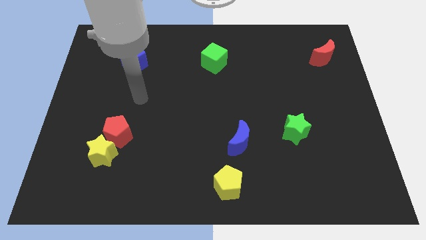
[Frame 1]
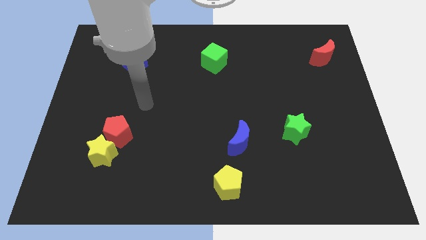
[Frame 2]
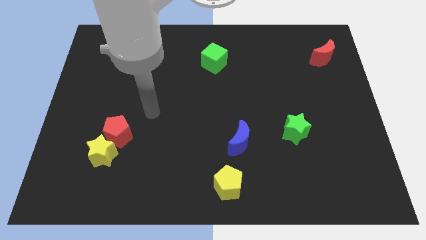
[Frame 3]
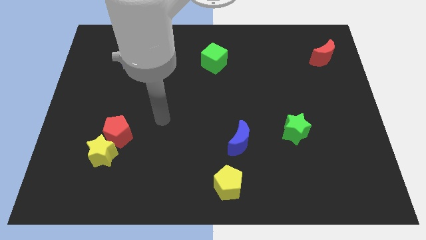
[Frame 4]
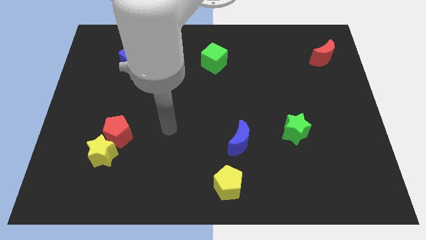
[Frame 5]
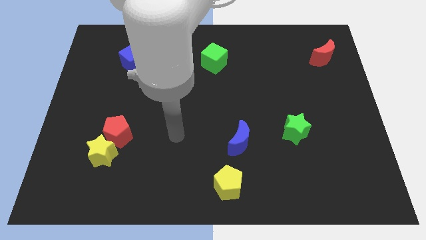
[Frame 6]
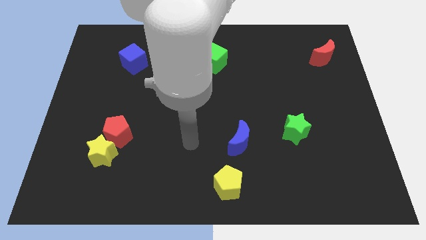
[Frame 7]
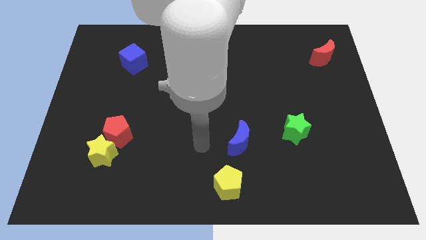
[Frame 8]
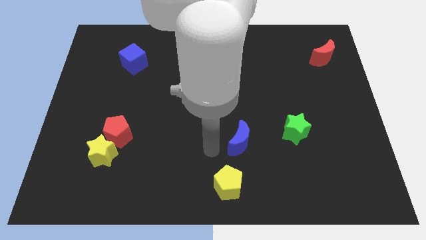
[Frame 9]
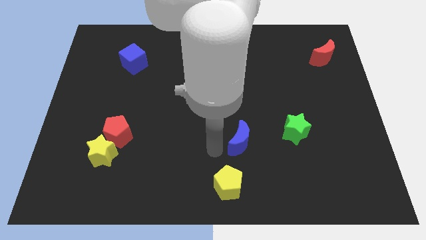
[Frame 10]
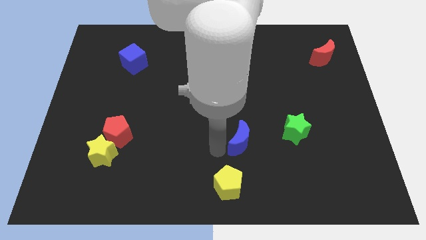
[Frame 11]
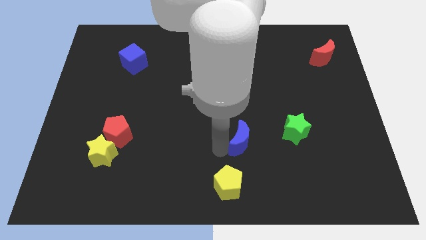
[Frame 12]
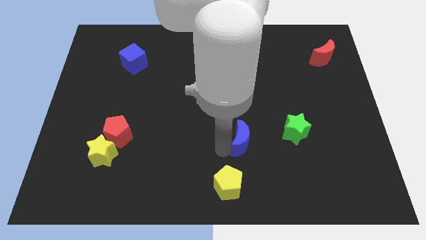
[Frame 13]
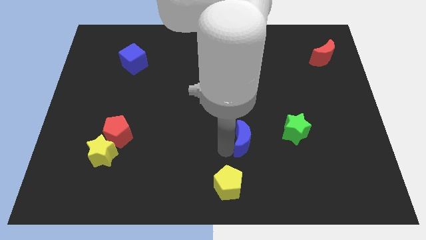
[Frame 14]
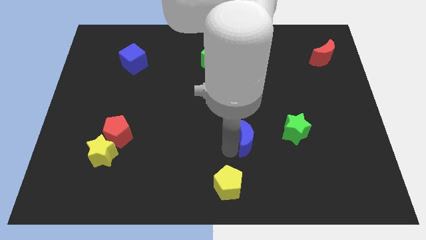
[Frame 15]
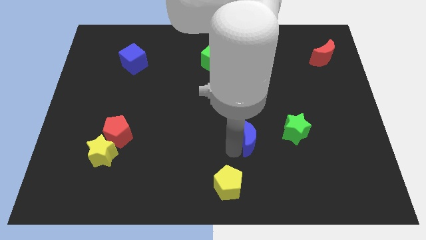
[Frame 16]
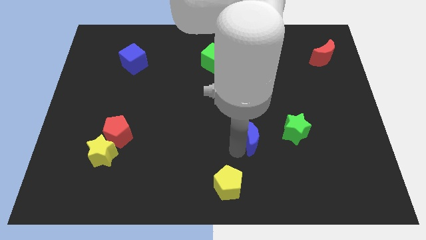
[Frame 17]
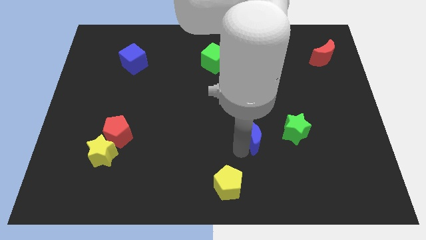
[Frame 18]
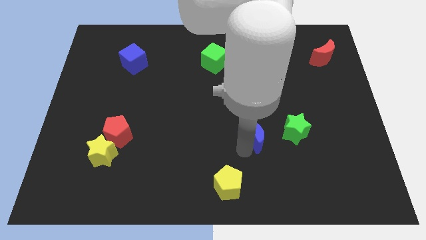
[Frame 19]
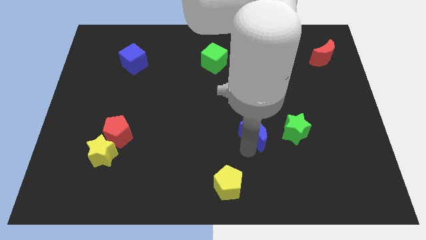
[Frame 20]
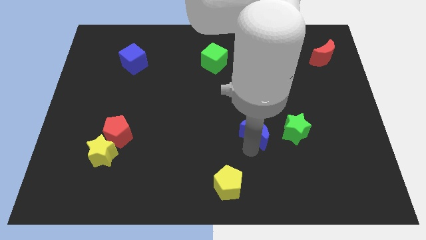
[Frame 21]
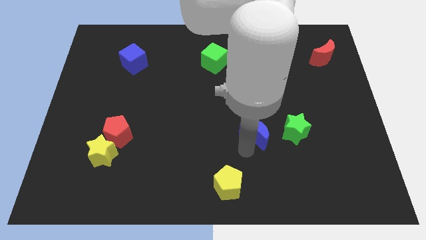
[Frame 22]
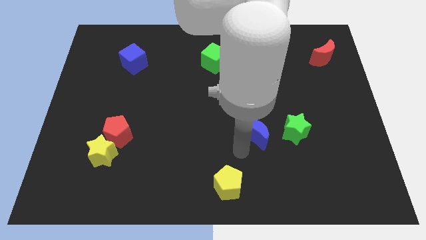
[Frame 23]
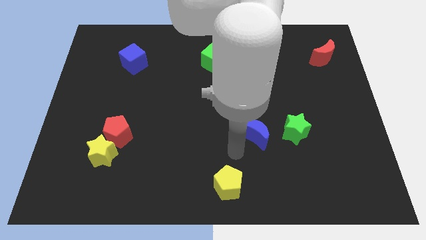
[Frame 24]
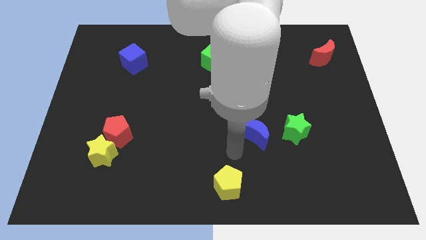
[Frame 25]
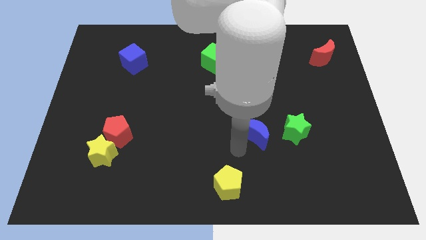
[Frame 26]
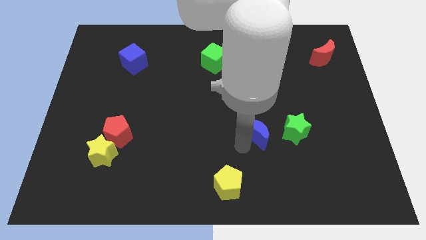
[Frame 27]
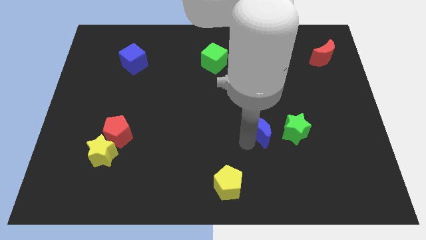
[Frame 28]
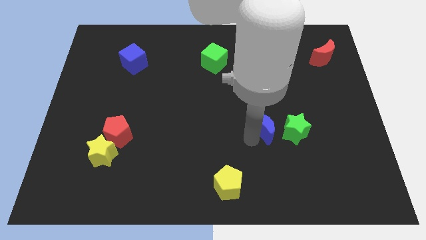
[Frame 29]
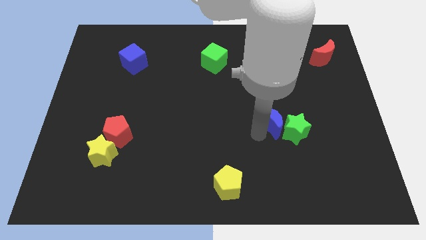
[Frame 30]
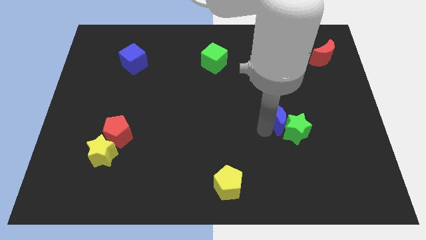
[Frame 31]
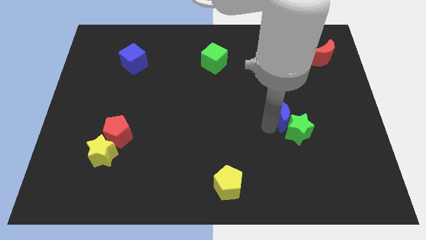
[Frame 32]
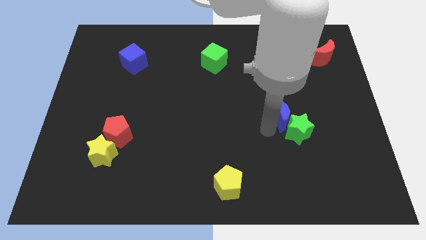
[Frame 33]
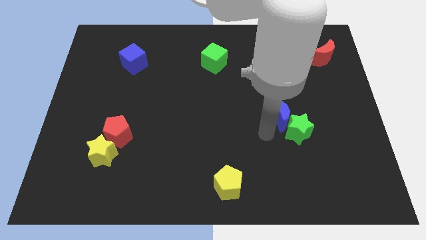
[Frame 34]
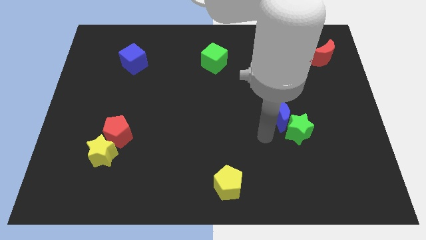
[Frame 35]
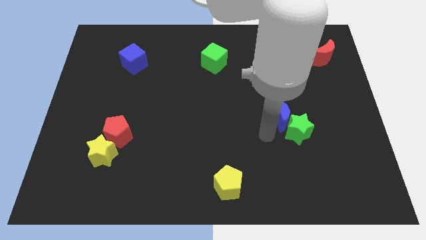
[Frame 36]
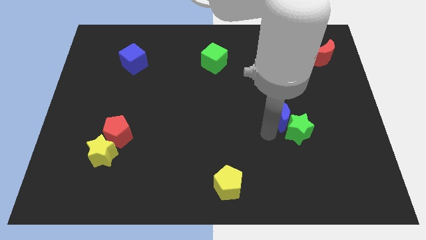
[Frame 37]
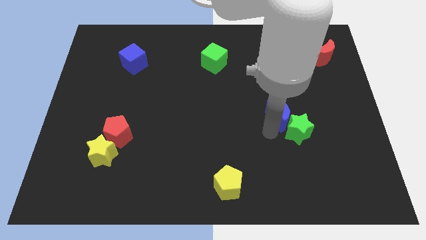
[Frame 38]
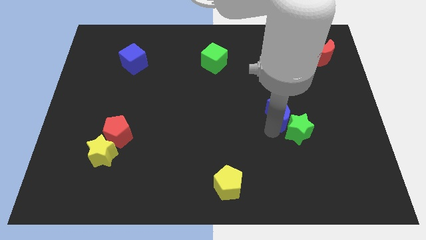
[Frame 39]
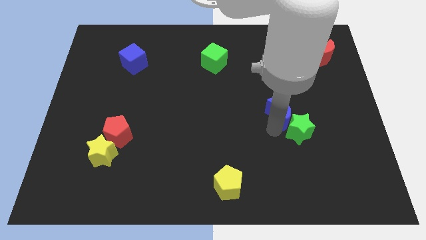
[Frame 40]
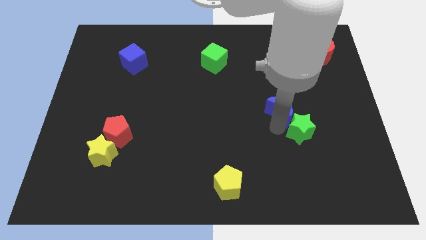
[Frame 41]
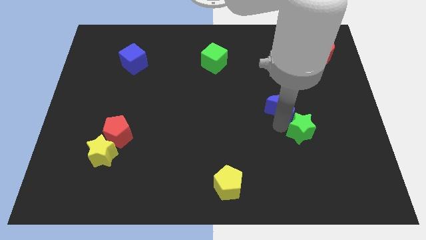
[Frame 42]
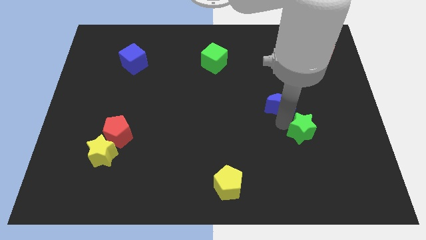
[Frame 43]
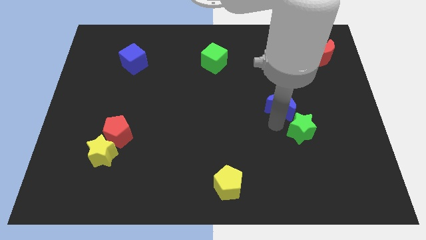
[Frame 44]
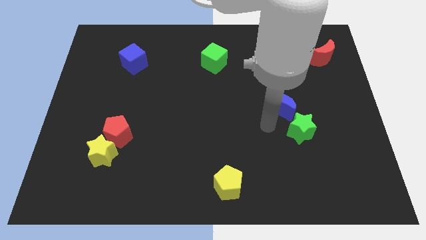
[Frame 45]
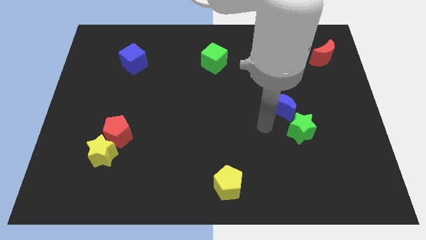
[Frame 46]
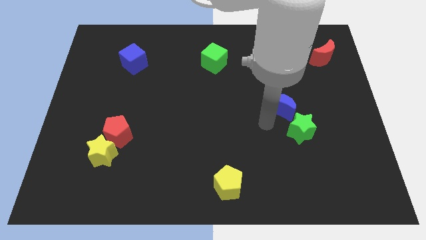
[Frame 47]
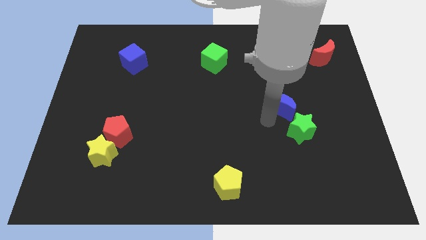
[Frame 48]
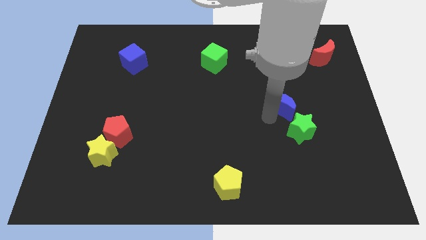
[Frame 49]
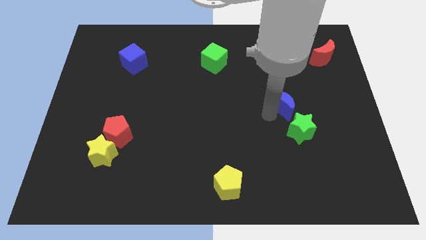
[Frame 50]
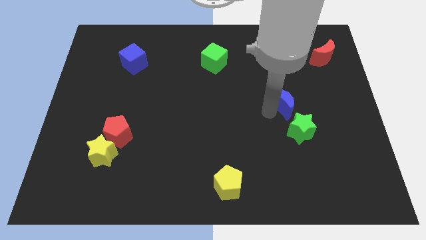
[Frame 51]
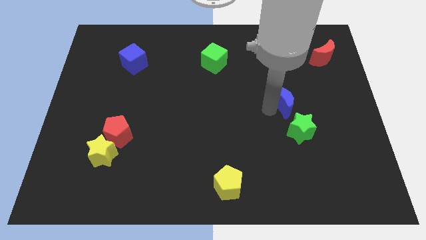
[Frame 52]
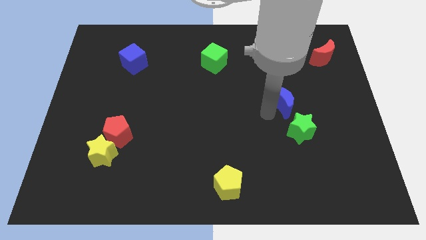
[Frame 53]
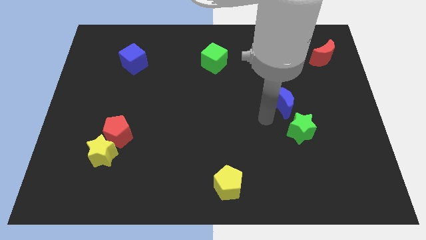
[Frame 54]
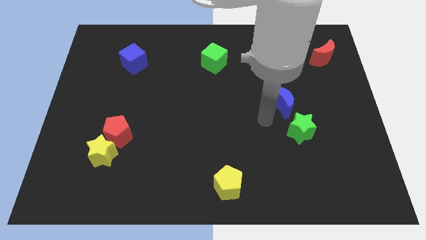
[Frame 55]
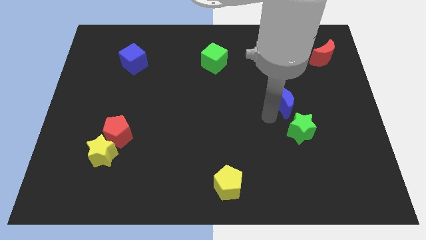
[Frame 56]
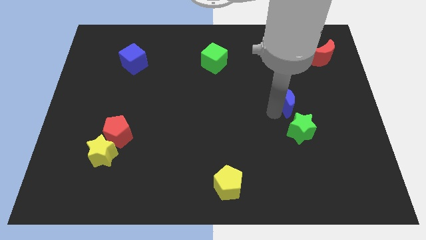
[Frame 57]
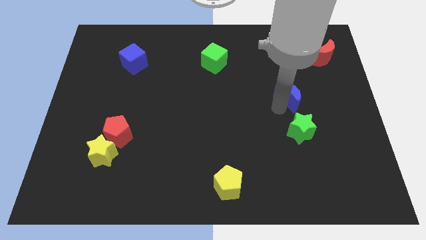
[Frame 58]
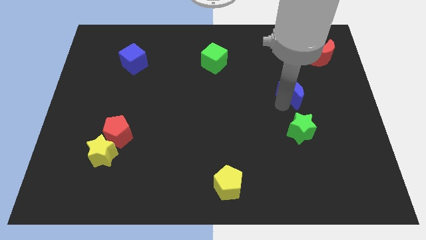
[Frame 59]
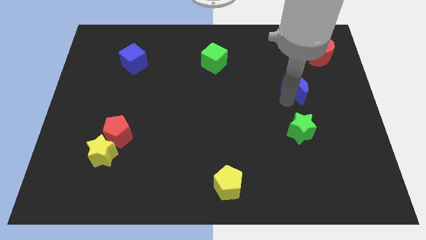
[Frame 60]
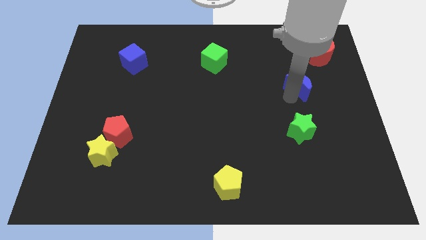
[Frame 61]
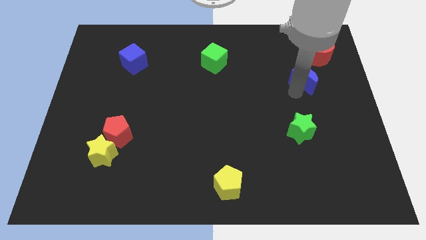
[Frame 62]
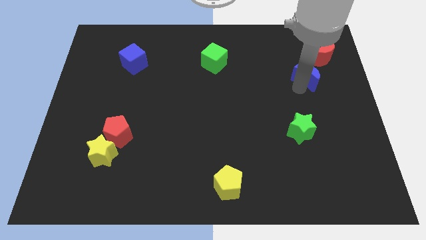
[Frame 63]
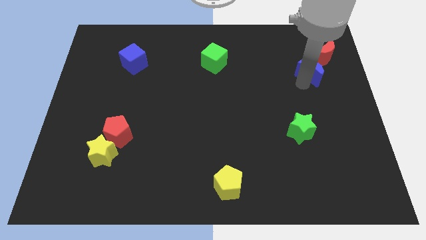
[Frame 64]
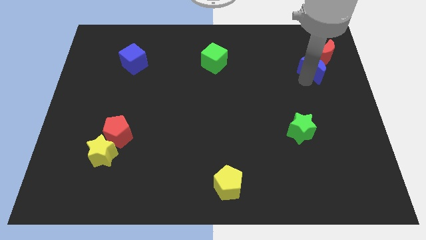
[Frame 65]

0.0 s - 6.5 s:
move the blue moon to the red moon

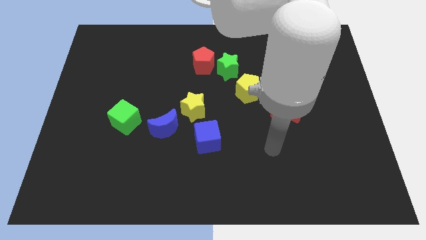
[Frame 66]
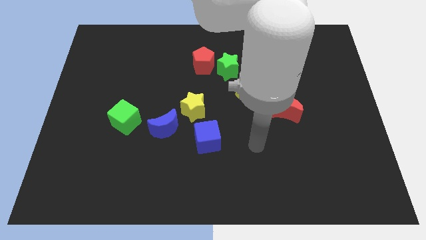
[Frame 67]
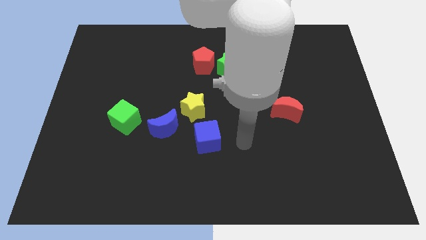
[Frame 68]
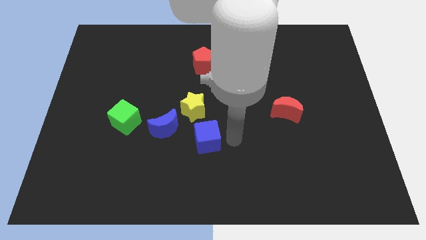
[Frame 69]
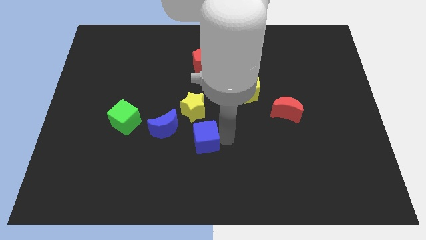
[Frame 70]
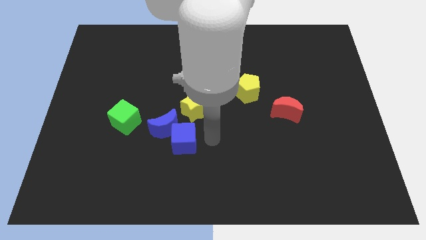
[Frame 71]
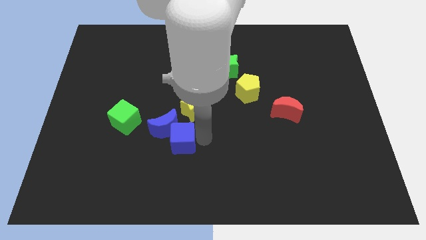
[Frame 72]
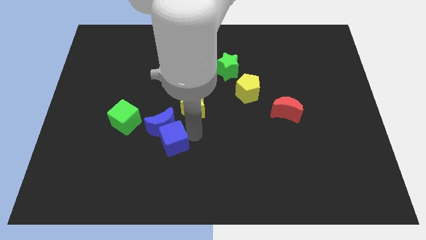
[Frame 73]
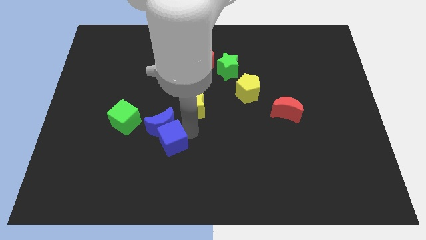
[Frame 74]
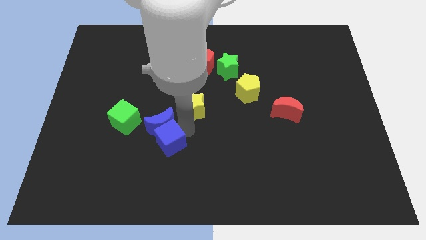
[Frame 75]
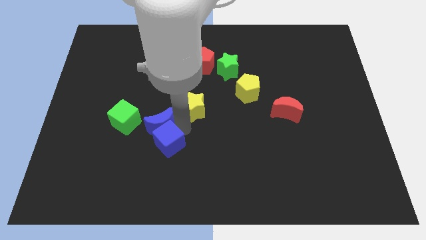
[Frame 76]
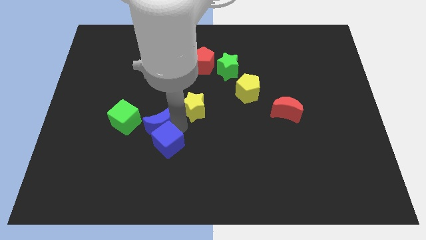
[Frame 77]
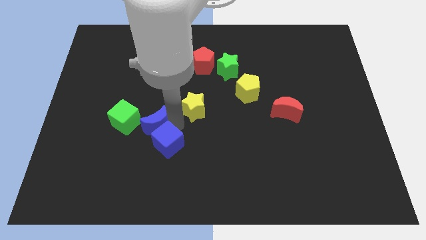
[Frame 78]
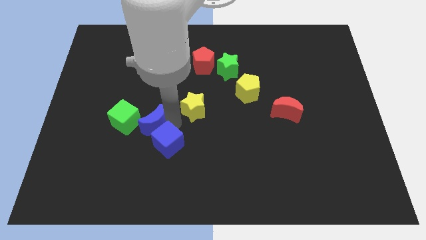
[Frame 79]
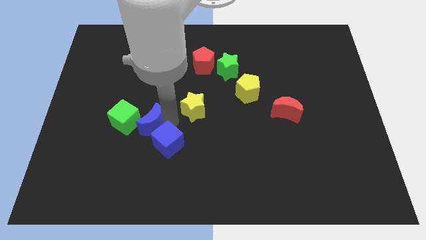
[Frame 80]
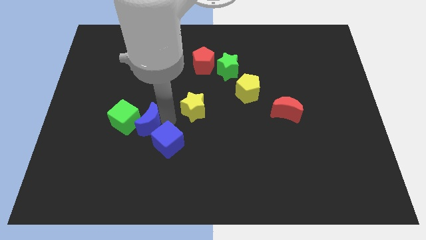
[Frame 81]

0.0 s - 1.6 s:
put the blue moon to the green cube
